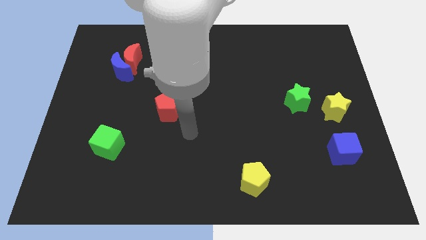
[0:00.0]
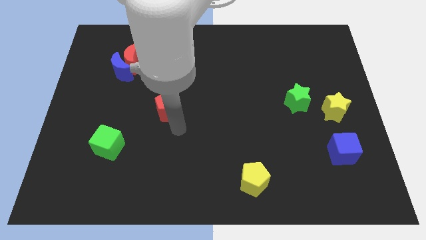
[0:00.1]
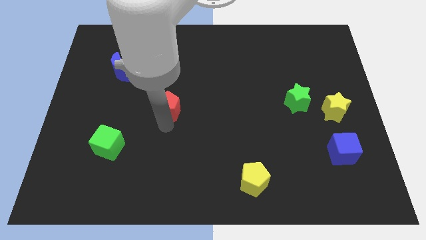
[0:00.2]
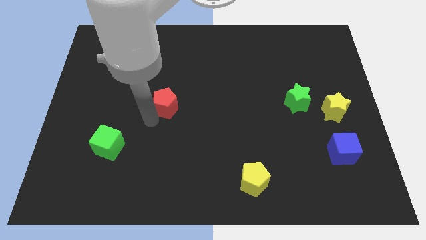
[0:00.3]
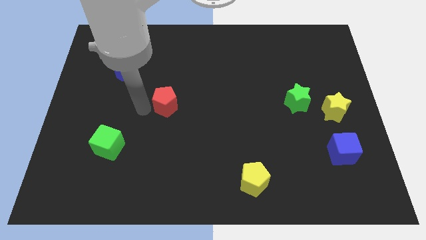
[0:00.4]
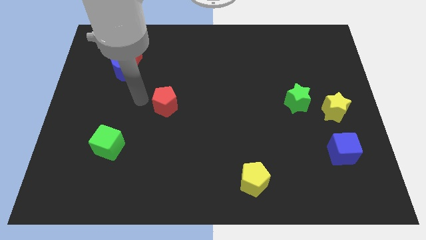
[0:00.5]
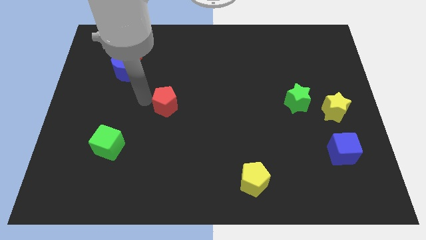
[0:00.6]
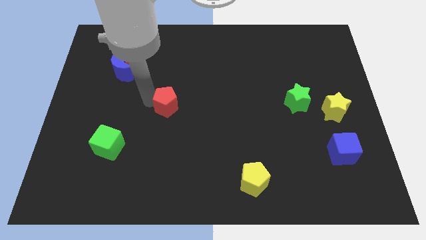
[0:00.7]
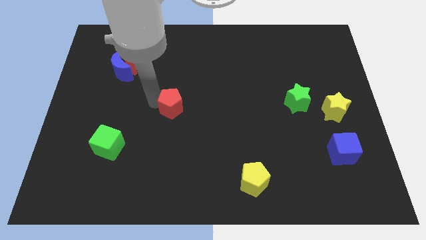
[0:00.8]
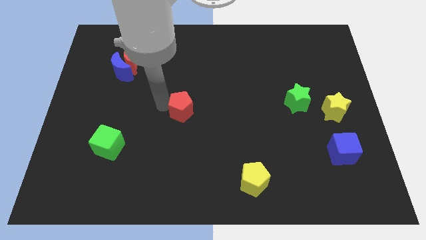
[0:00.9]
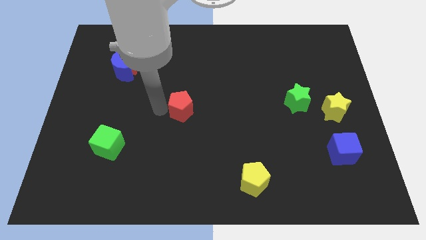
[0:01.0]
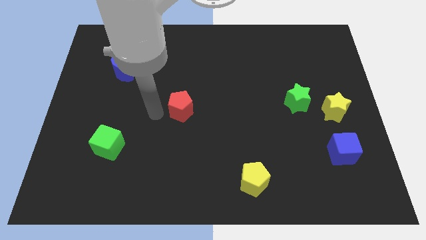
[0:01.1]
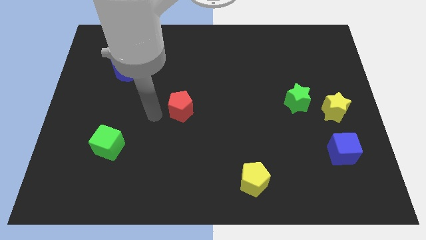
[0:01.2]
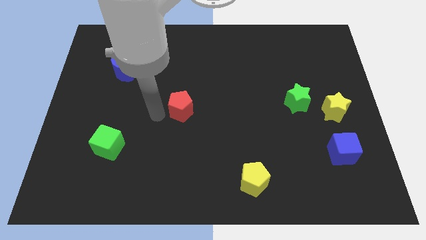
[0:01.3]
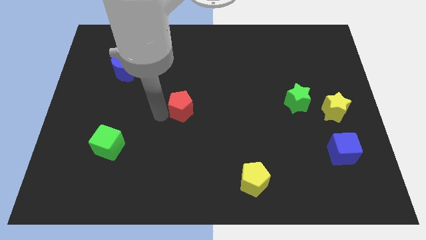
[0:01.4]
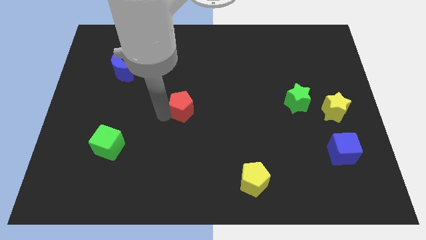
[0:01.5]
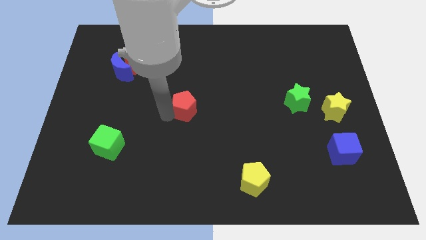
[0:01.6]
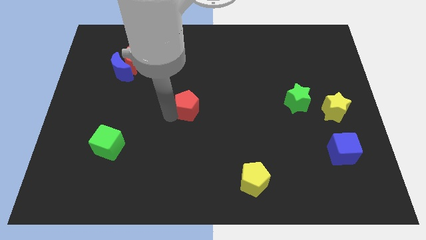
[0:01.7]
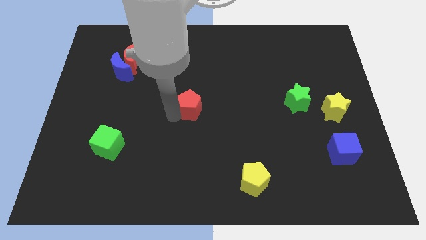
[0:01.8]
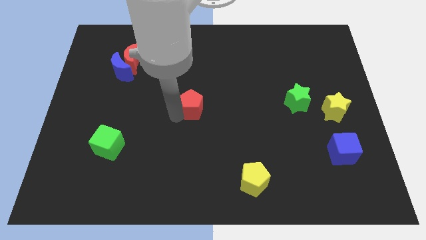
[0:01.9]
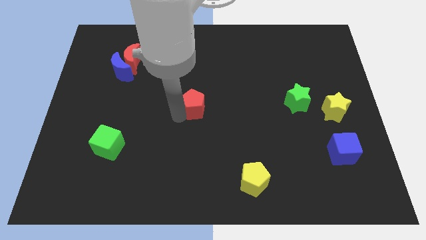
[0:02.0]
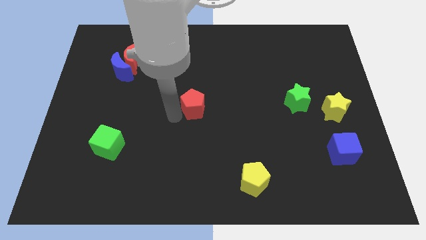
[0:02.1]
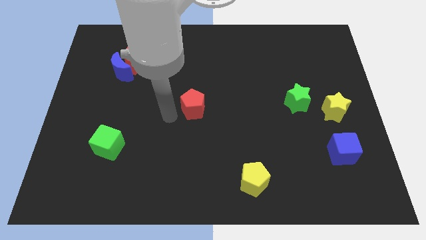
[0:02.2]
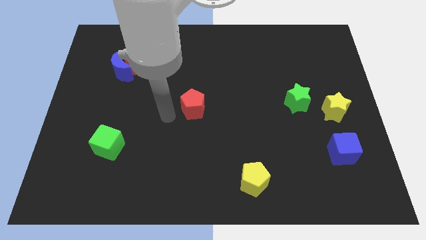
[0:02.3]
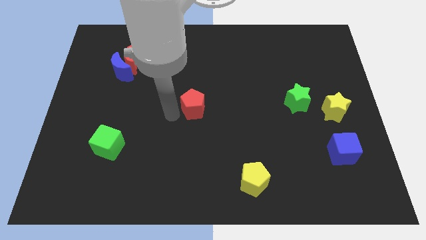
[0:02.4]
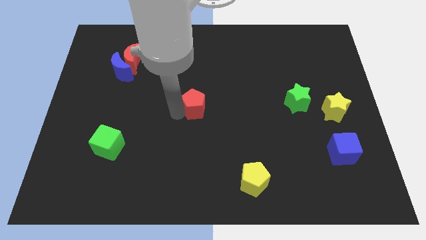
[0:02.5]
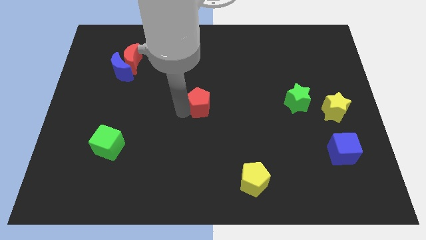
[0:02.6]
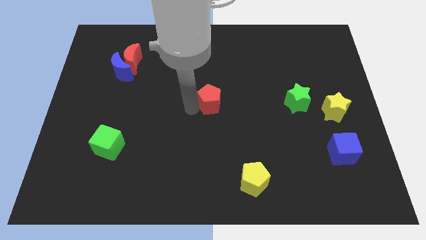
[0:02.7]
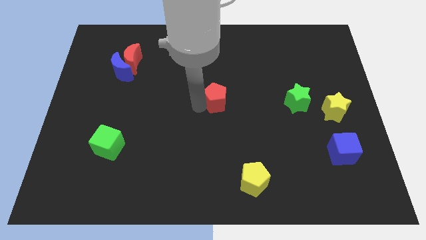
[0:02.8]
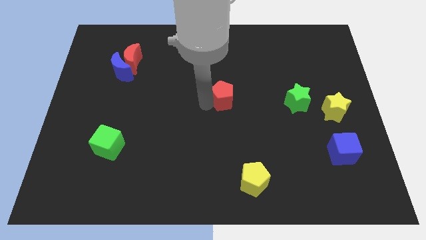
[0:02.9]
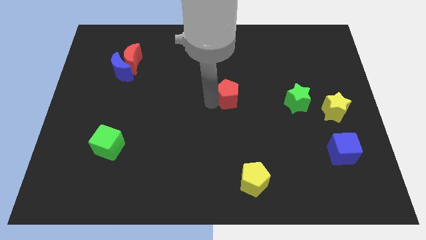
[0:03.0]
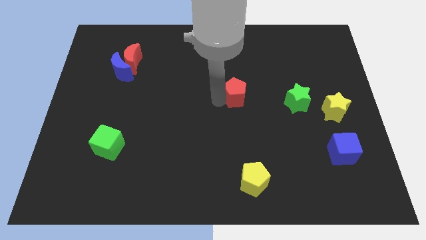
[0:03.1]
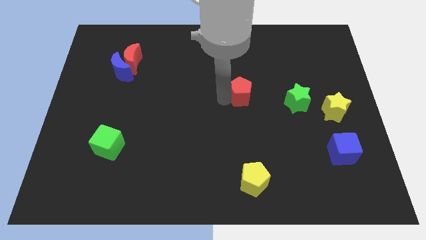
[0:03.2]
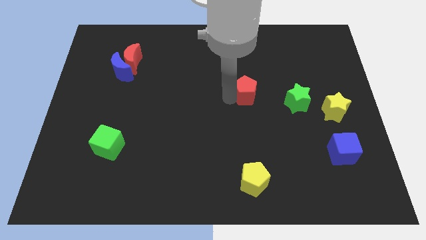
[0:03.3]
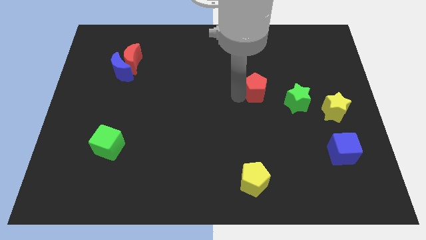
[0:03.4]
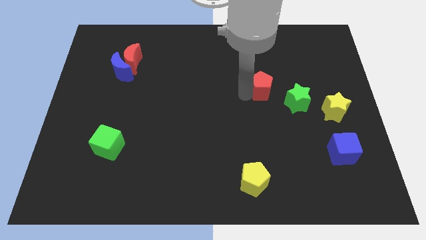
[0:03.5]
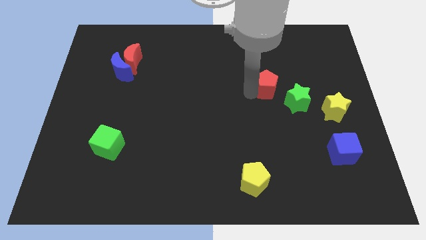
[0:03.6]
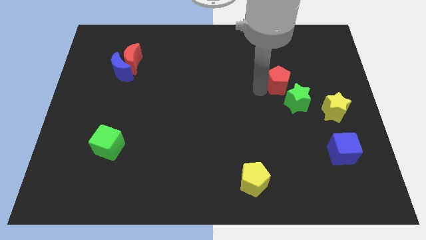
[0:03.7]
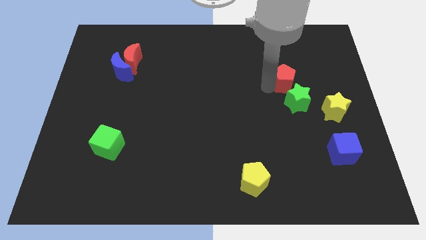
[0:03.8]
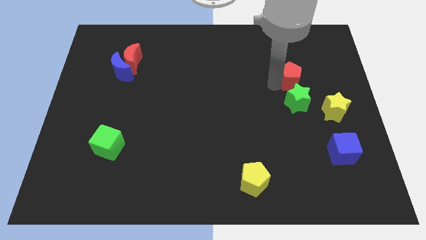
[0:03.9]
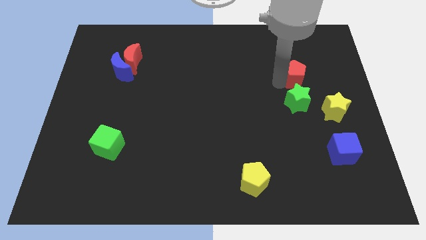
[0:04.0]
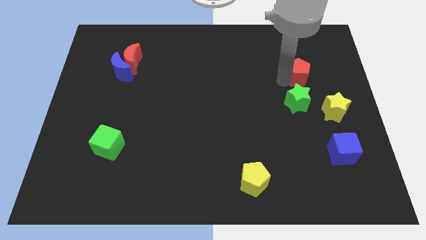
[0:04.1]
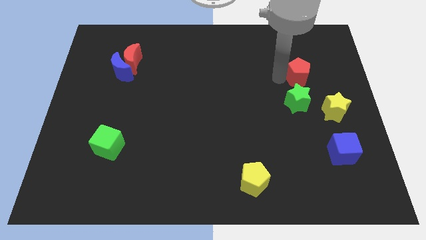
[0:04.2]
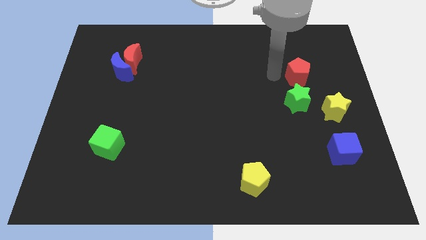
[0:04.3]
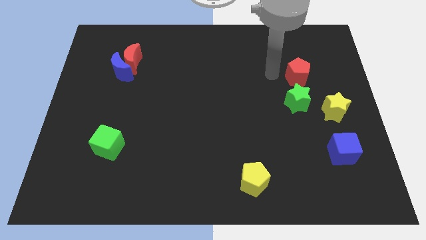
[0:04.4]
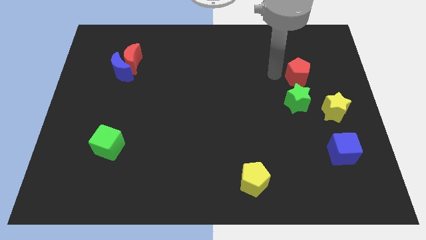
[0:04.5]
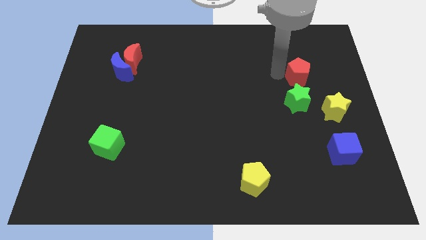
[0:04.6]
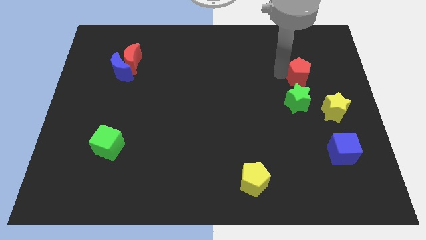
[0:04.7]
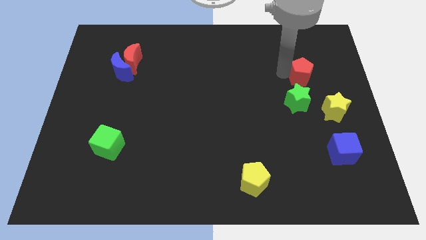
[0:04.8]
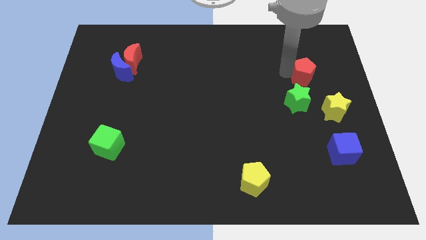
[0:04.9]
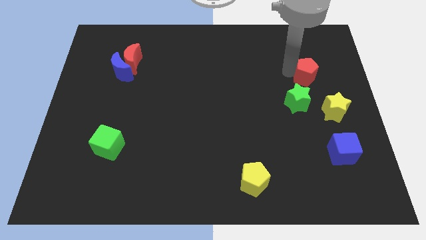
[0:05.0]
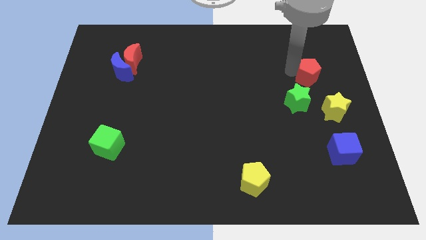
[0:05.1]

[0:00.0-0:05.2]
move the red pentagon above the yellow star

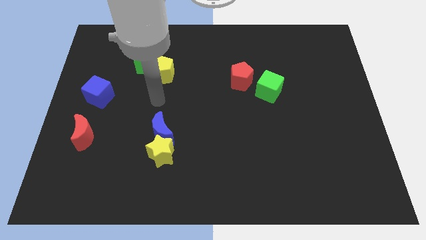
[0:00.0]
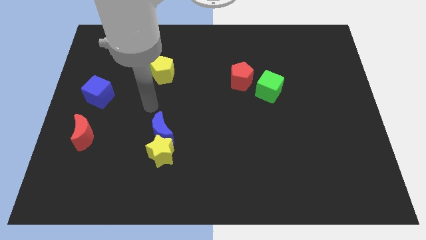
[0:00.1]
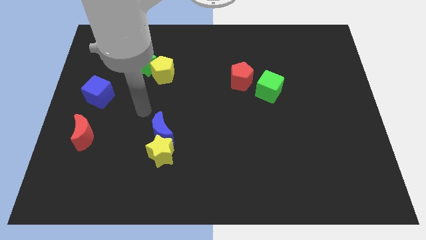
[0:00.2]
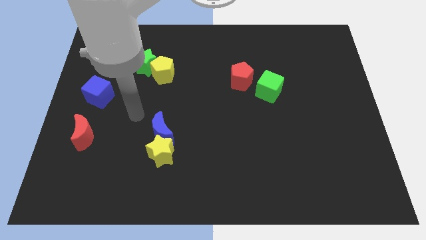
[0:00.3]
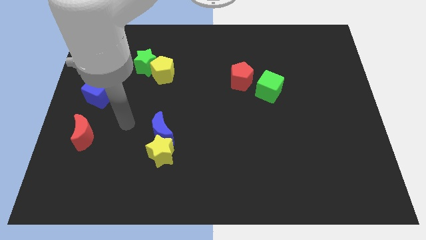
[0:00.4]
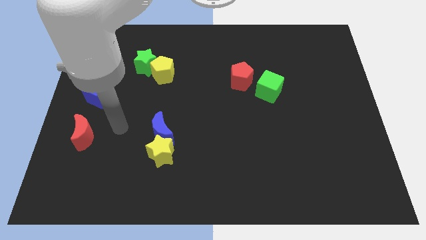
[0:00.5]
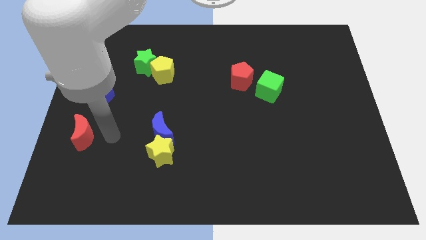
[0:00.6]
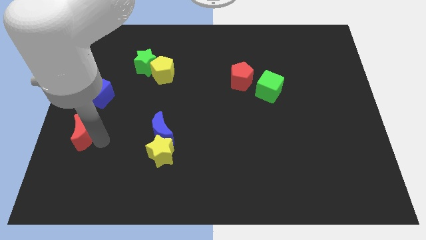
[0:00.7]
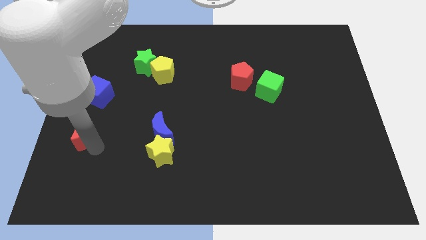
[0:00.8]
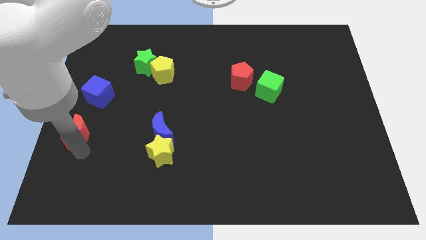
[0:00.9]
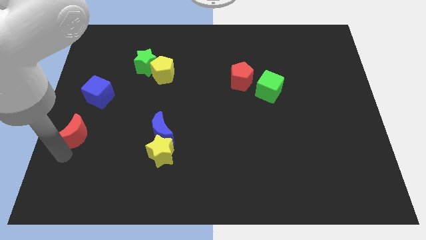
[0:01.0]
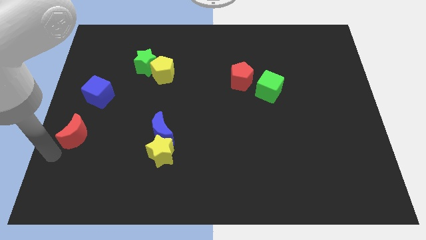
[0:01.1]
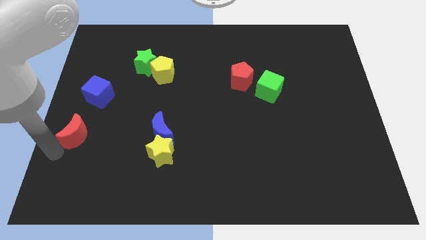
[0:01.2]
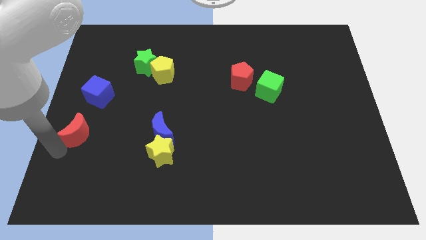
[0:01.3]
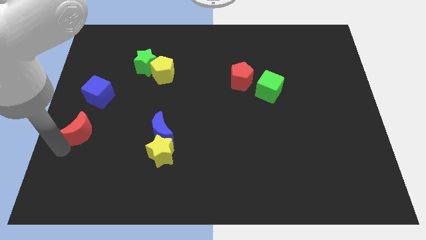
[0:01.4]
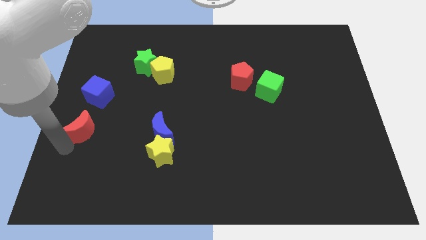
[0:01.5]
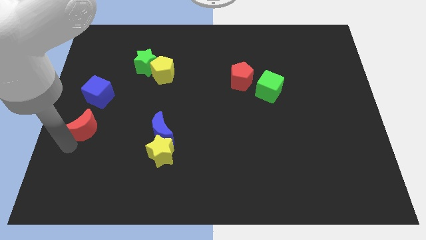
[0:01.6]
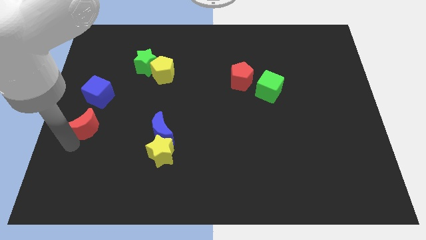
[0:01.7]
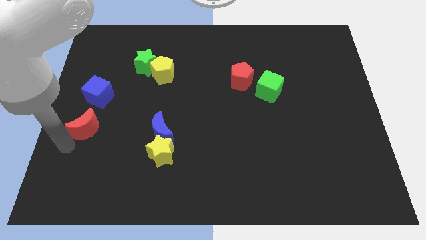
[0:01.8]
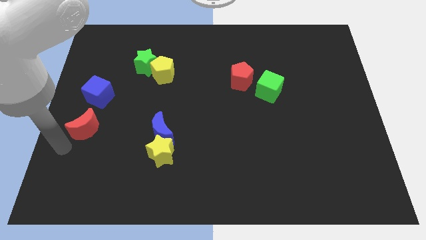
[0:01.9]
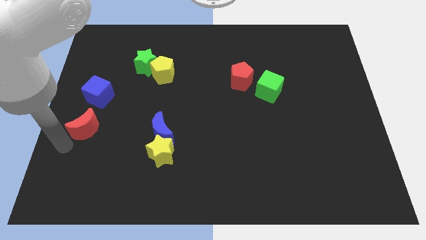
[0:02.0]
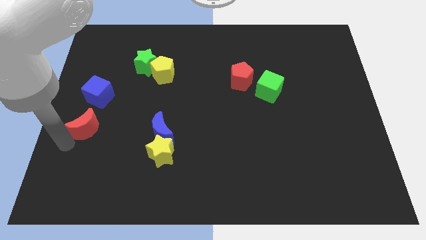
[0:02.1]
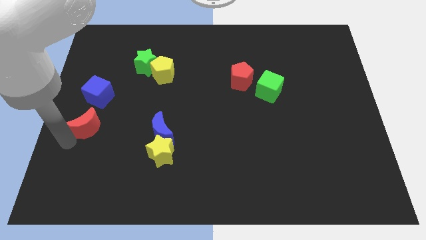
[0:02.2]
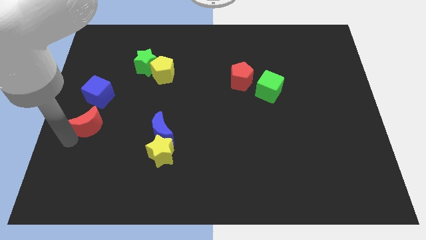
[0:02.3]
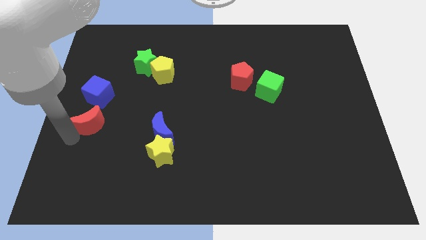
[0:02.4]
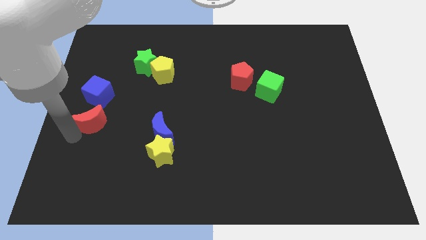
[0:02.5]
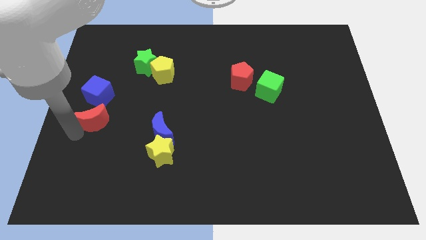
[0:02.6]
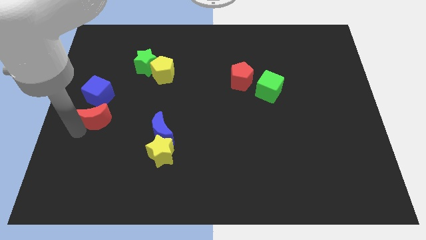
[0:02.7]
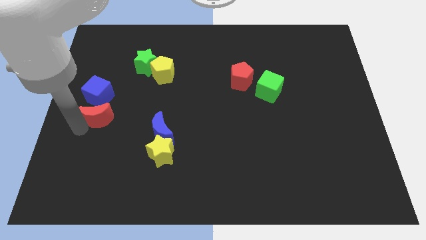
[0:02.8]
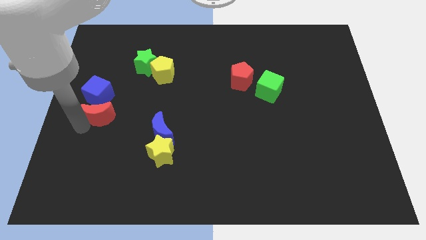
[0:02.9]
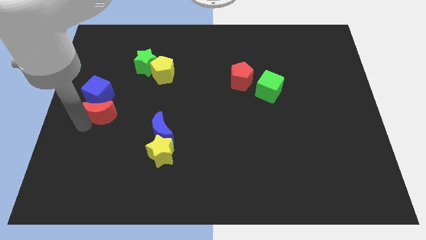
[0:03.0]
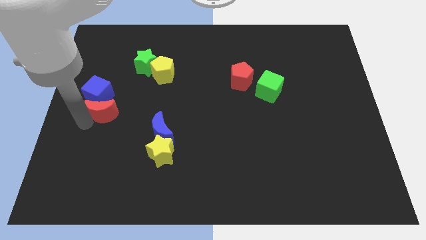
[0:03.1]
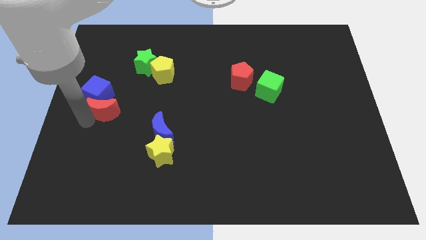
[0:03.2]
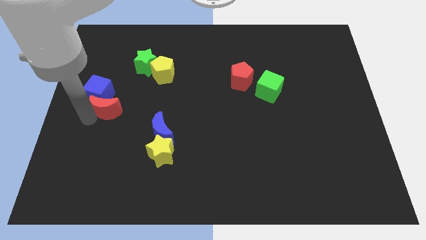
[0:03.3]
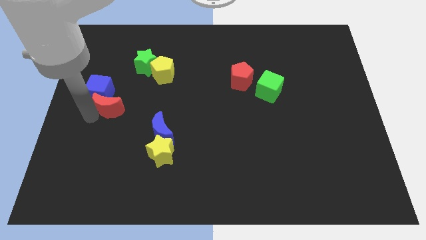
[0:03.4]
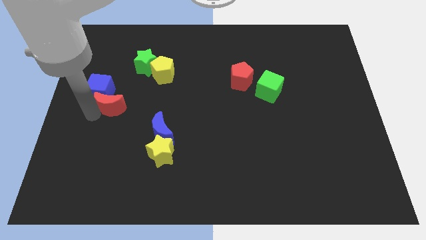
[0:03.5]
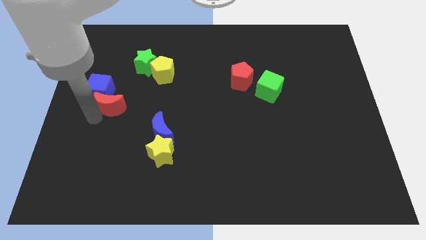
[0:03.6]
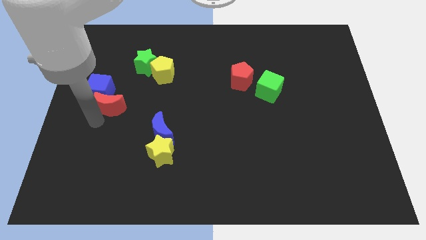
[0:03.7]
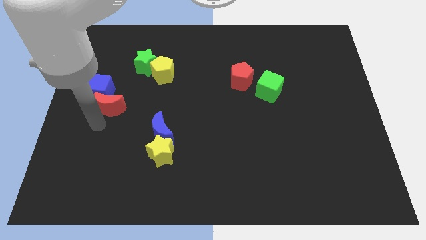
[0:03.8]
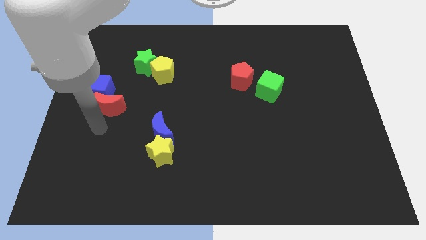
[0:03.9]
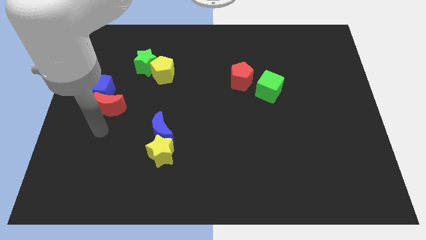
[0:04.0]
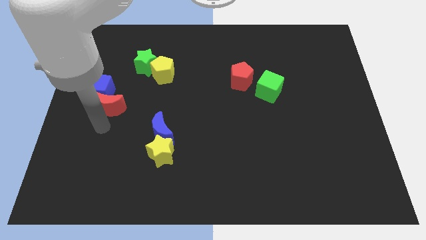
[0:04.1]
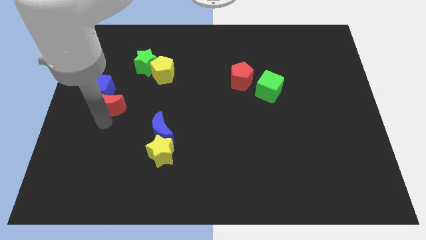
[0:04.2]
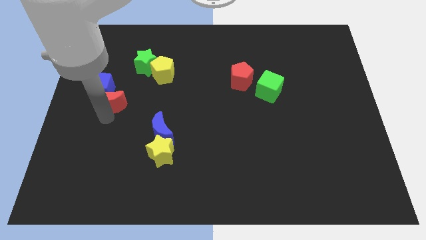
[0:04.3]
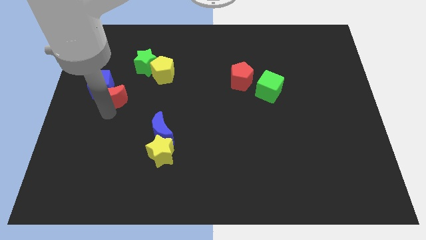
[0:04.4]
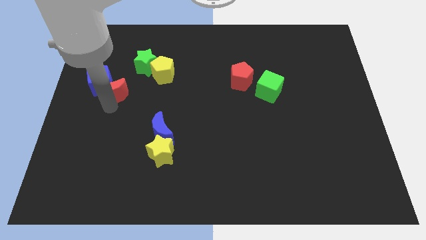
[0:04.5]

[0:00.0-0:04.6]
put the red moon to the bottom left of the green star
